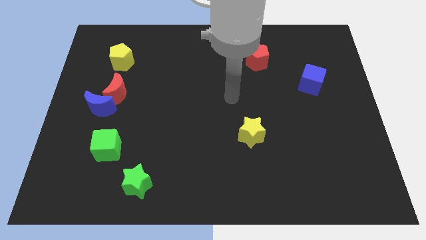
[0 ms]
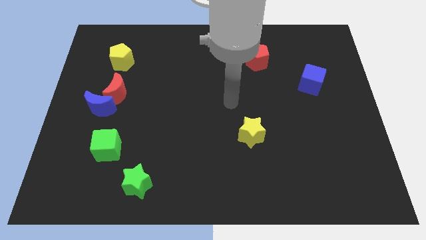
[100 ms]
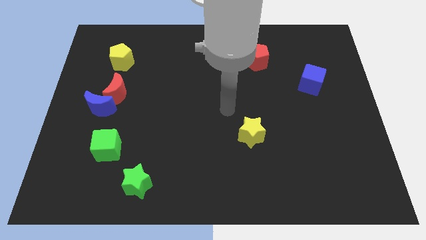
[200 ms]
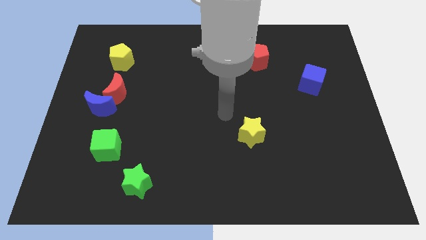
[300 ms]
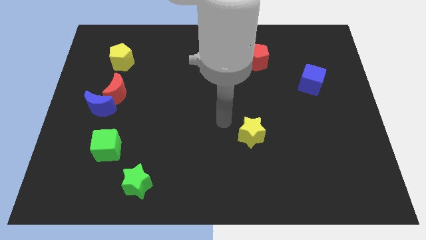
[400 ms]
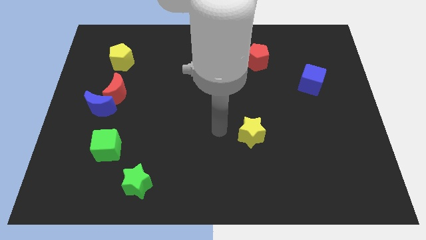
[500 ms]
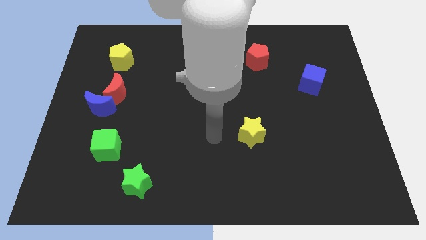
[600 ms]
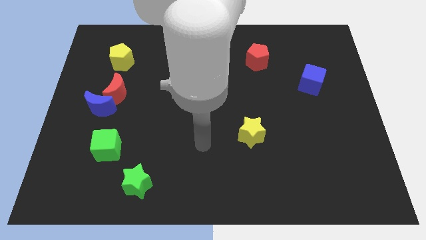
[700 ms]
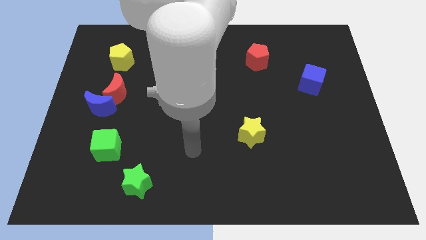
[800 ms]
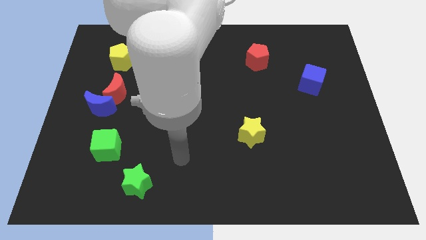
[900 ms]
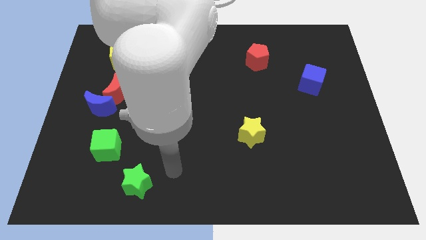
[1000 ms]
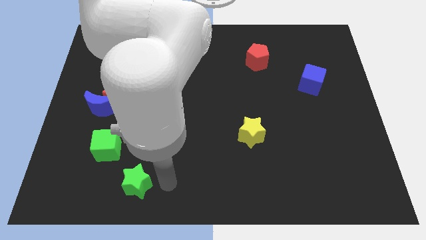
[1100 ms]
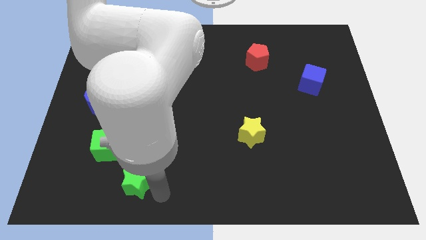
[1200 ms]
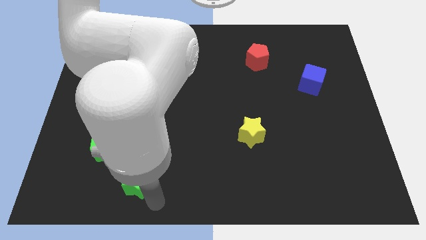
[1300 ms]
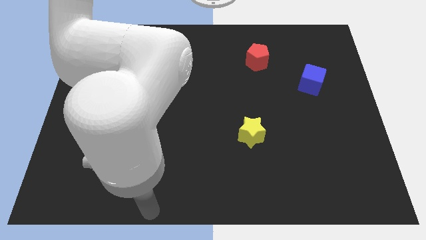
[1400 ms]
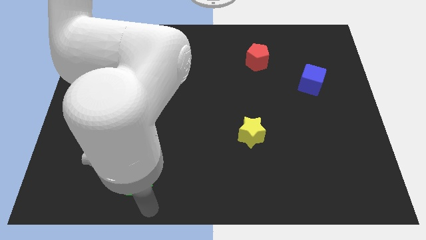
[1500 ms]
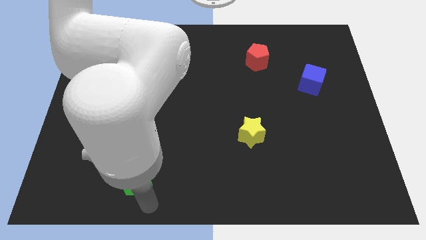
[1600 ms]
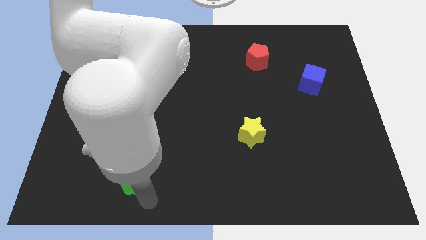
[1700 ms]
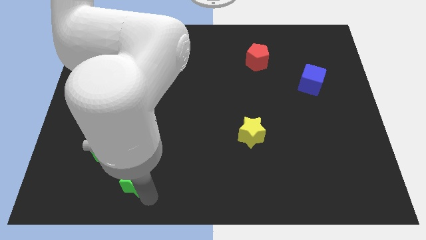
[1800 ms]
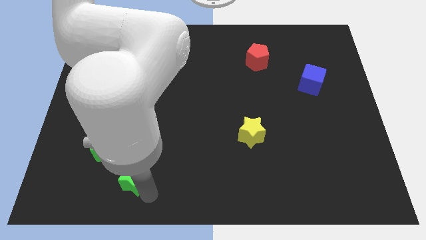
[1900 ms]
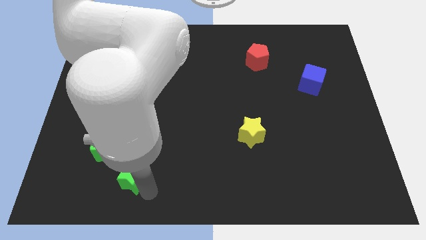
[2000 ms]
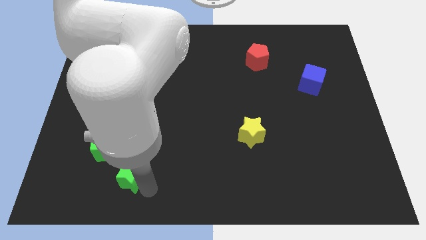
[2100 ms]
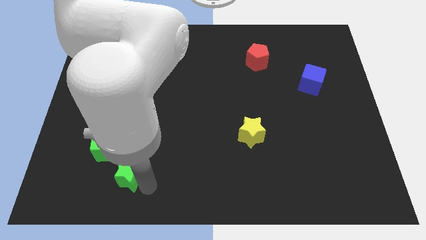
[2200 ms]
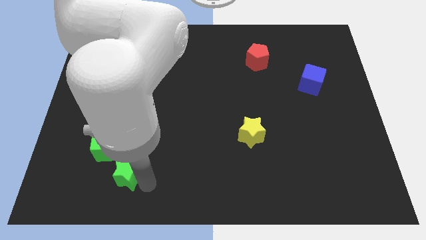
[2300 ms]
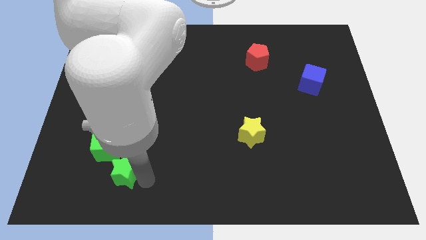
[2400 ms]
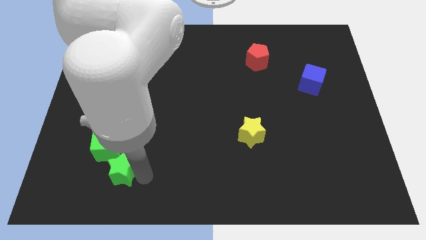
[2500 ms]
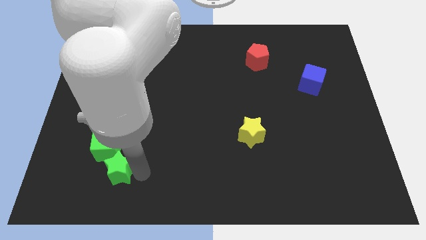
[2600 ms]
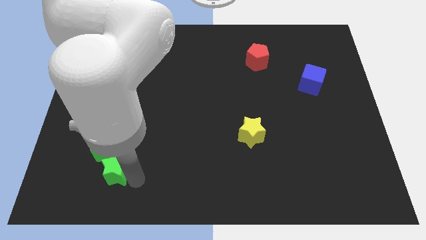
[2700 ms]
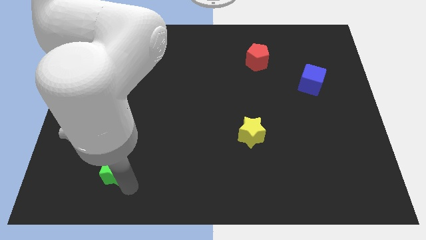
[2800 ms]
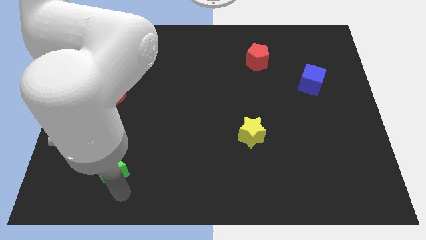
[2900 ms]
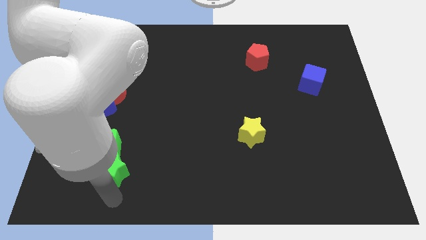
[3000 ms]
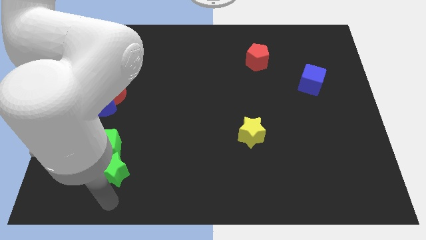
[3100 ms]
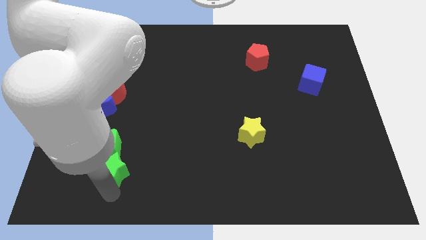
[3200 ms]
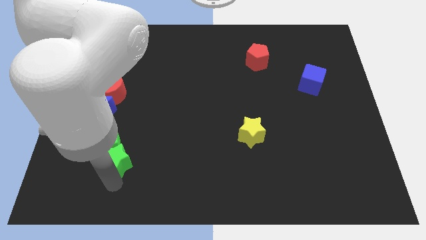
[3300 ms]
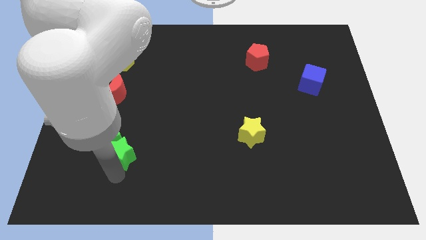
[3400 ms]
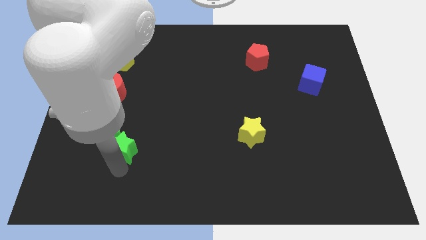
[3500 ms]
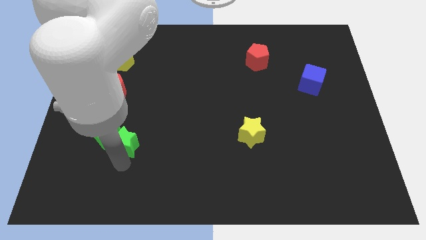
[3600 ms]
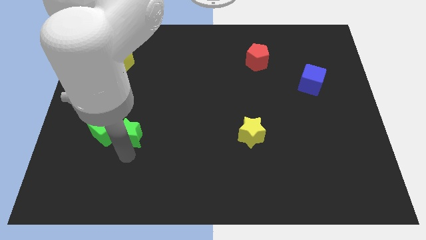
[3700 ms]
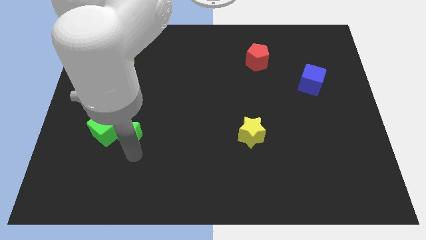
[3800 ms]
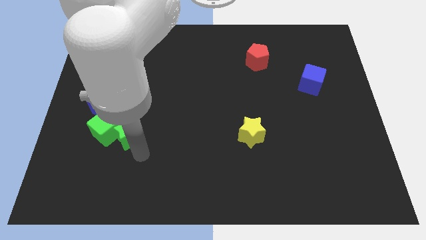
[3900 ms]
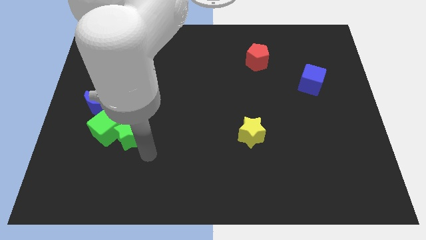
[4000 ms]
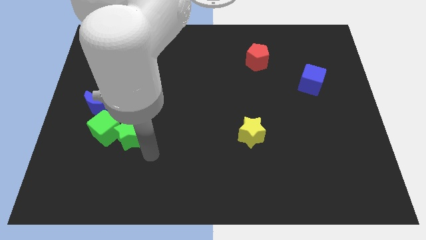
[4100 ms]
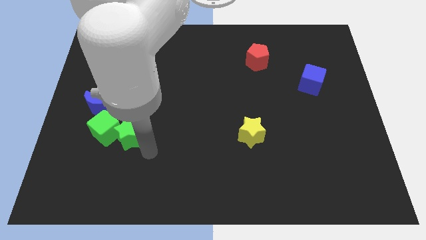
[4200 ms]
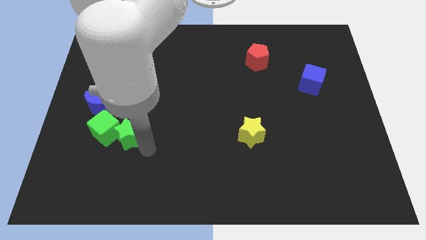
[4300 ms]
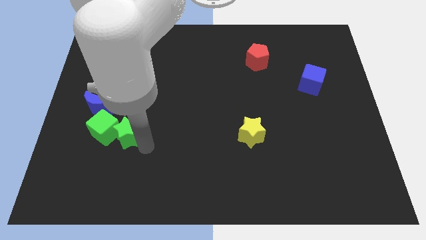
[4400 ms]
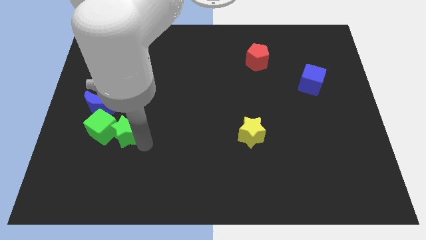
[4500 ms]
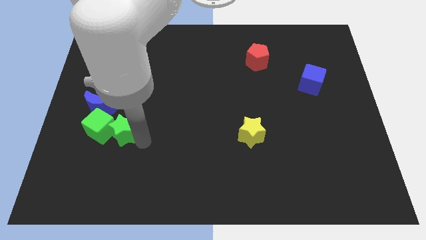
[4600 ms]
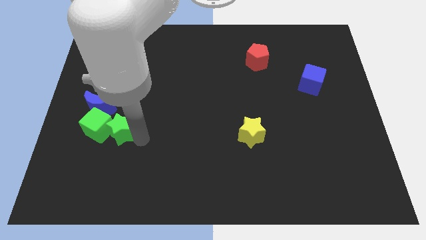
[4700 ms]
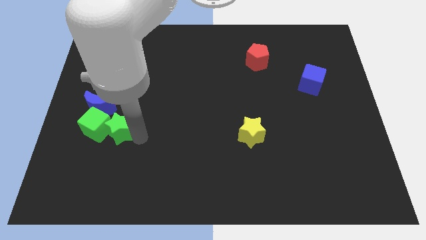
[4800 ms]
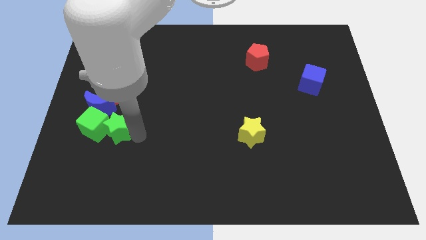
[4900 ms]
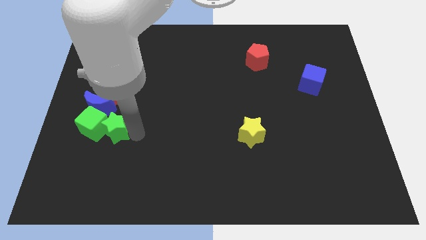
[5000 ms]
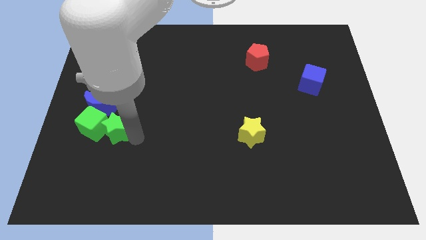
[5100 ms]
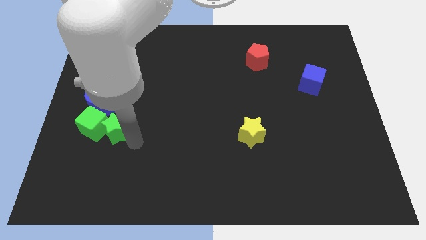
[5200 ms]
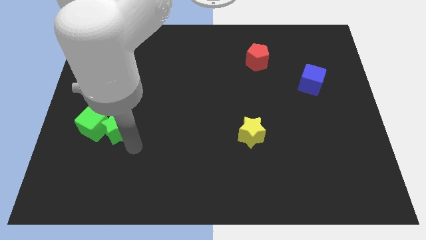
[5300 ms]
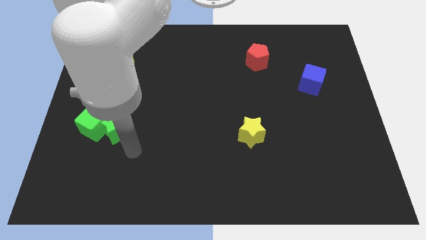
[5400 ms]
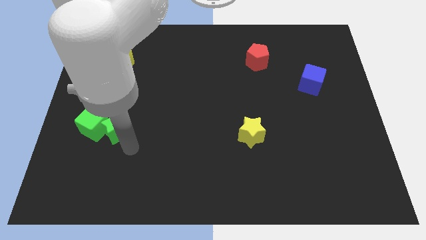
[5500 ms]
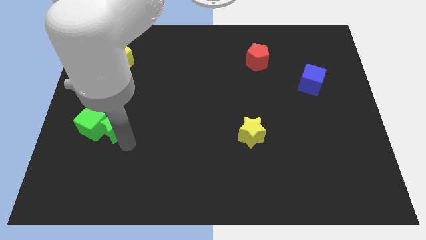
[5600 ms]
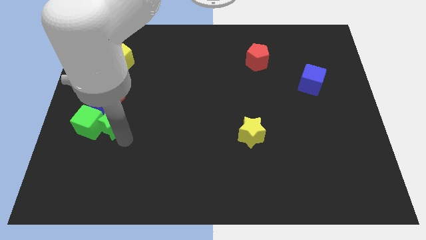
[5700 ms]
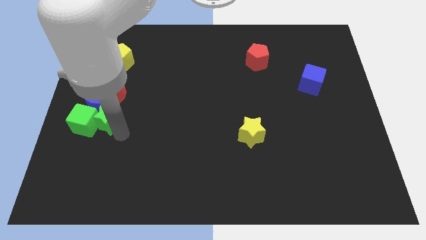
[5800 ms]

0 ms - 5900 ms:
put the green star to the blue moon
